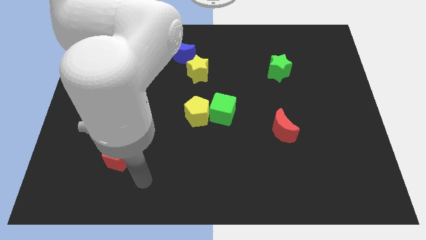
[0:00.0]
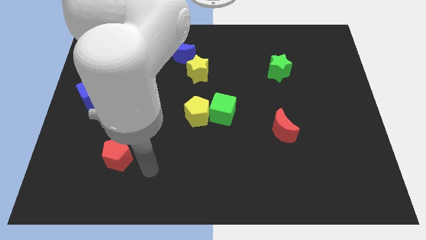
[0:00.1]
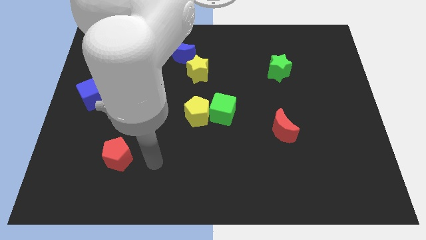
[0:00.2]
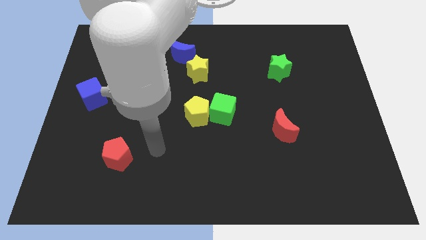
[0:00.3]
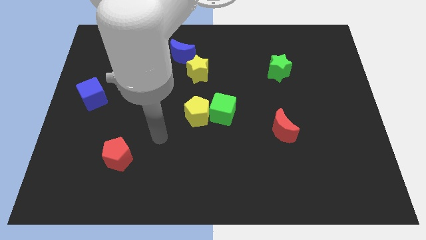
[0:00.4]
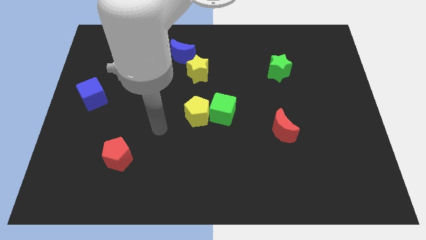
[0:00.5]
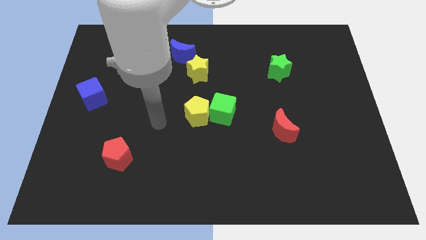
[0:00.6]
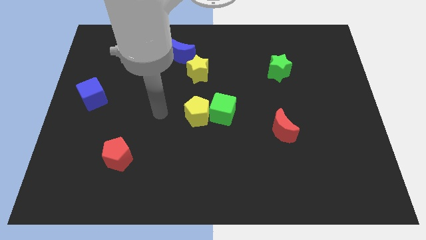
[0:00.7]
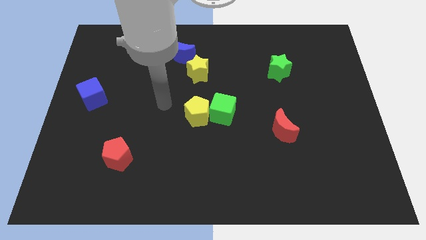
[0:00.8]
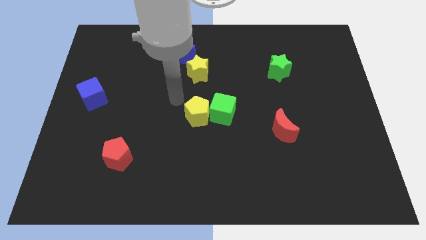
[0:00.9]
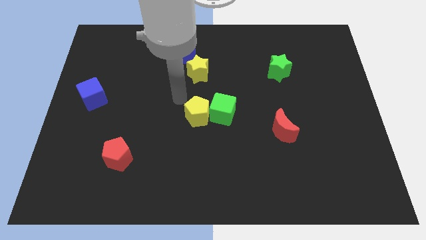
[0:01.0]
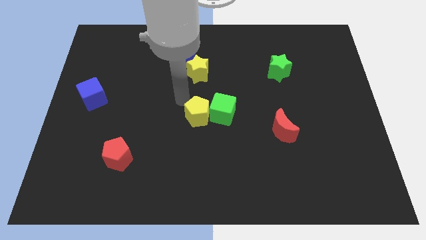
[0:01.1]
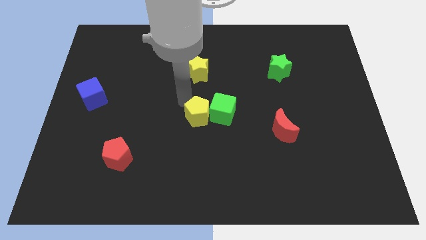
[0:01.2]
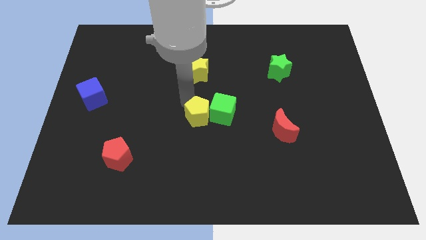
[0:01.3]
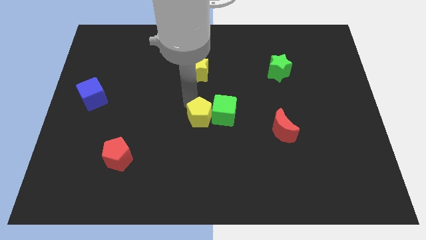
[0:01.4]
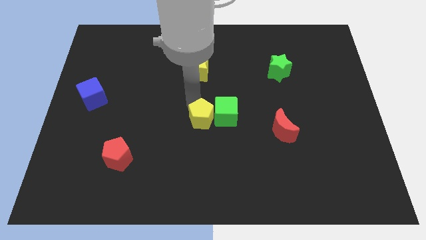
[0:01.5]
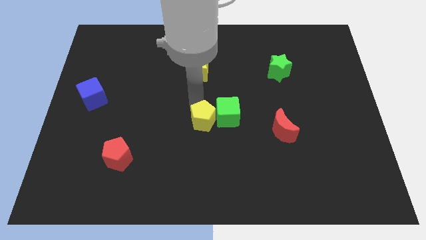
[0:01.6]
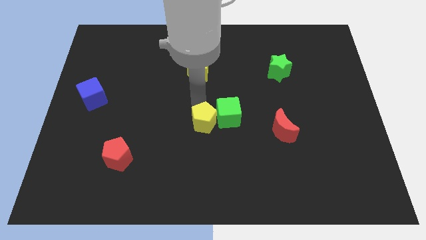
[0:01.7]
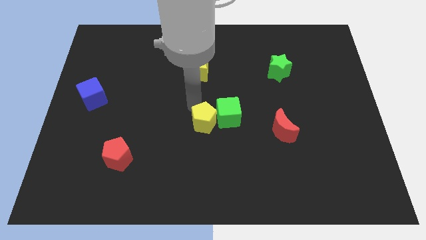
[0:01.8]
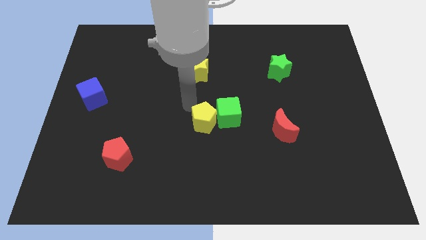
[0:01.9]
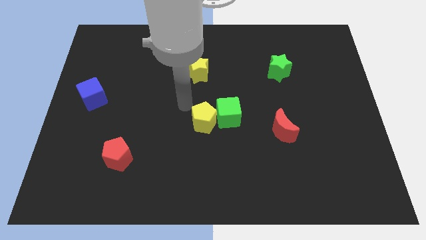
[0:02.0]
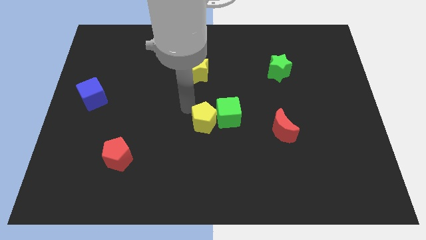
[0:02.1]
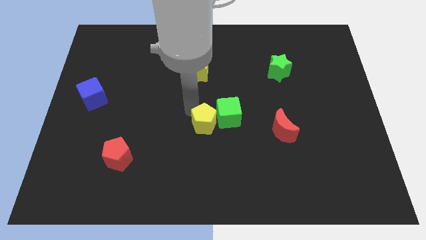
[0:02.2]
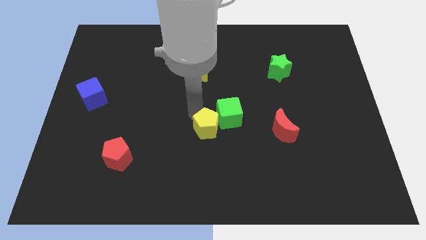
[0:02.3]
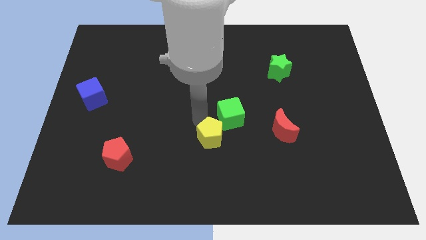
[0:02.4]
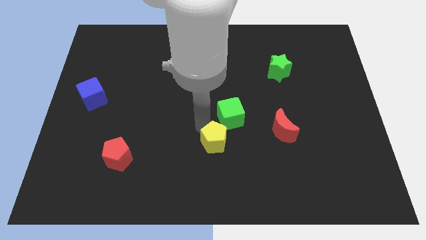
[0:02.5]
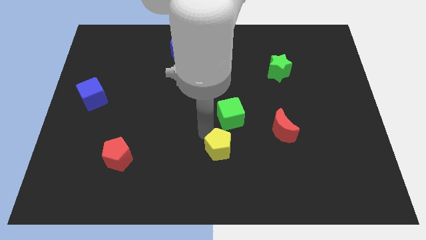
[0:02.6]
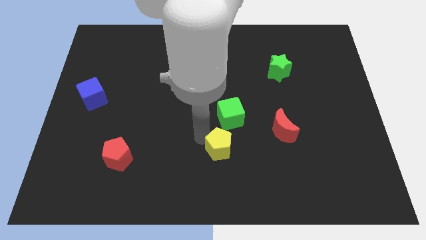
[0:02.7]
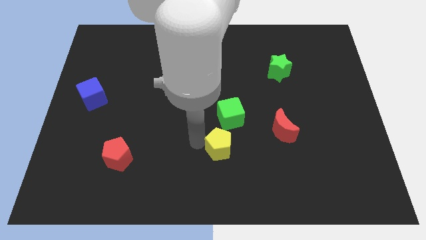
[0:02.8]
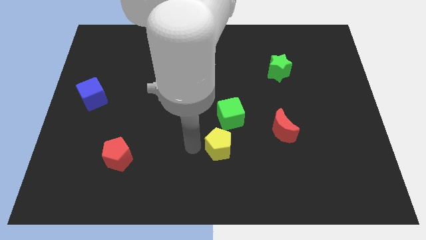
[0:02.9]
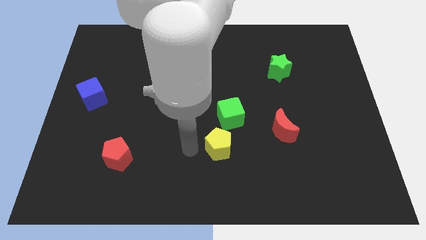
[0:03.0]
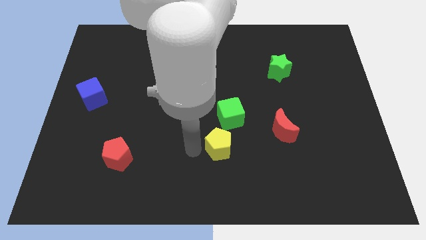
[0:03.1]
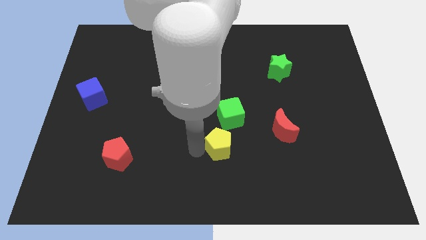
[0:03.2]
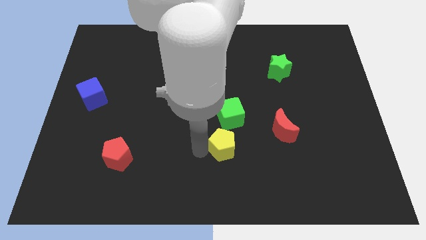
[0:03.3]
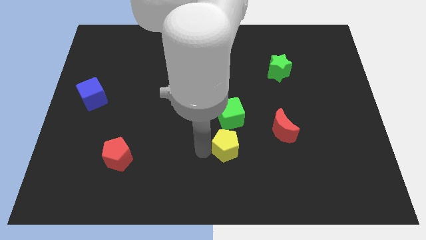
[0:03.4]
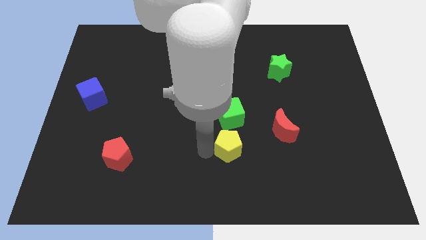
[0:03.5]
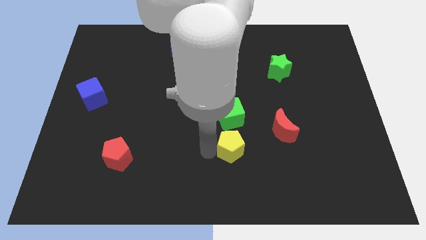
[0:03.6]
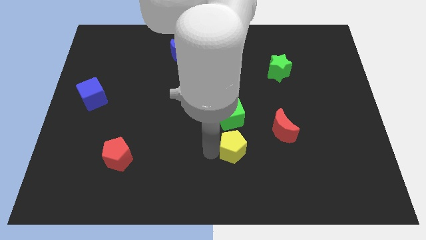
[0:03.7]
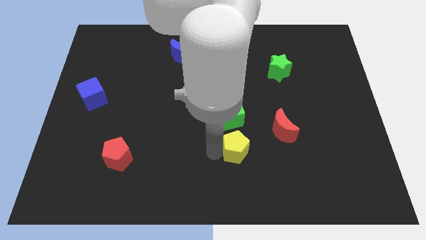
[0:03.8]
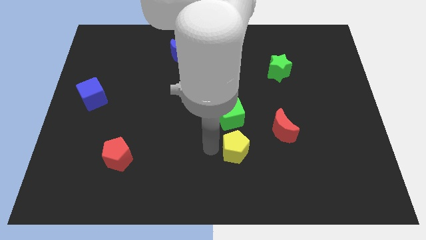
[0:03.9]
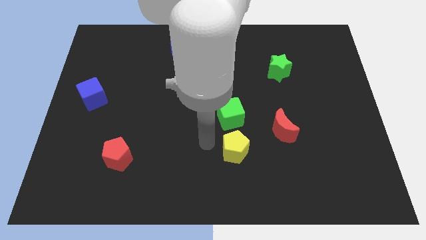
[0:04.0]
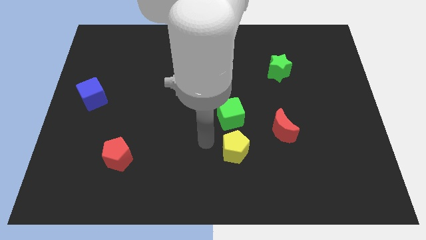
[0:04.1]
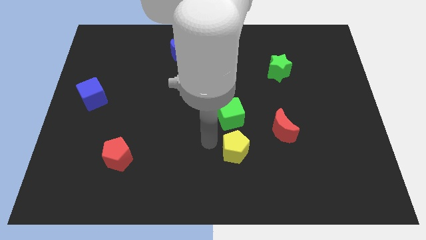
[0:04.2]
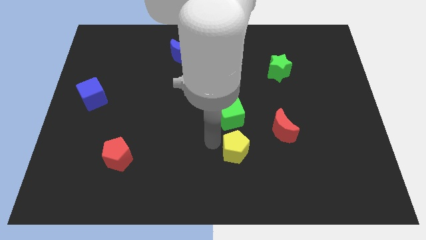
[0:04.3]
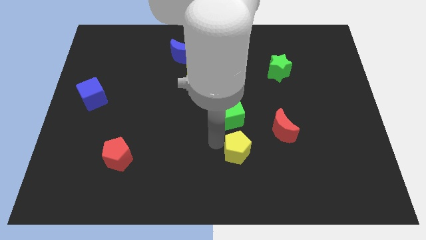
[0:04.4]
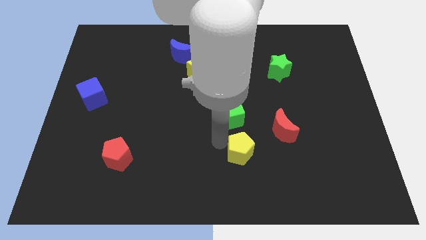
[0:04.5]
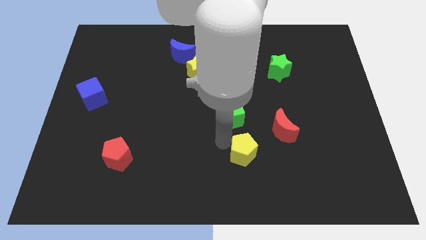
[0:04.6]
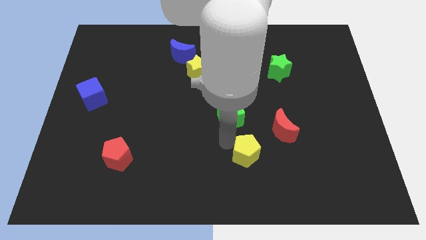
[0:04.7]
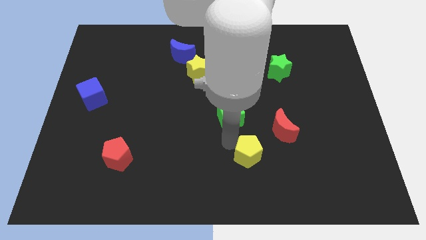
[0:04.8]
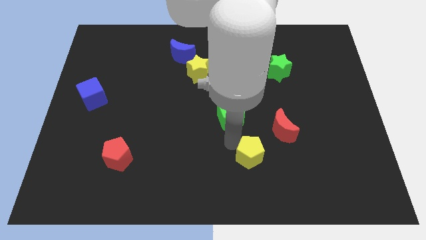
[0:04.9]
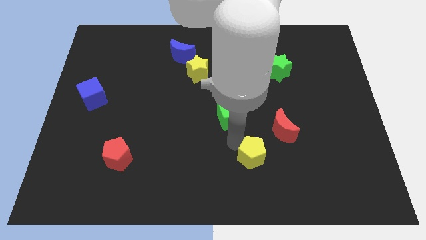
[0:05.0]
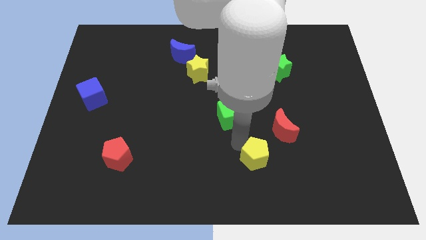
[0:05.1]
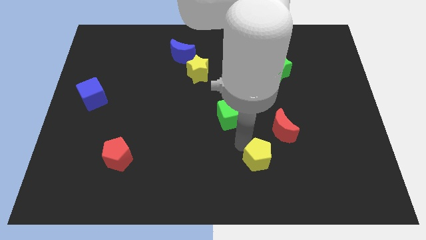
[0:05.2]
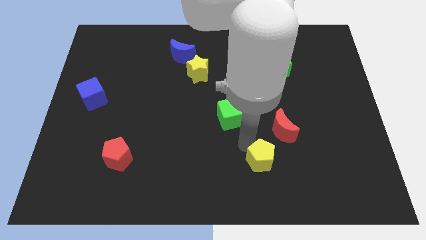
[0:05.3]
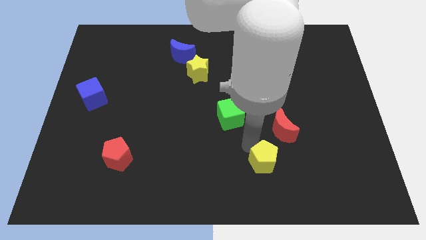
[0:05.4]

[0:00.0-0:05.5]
put the yellow pentagon to the bottom of the red moon

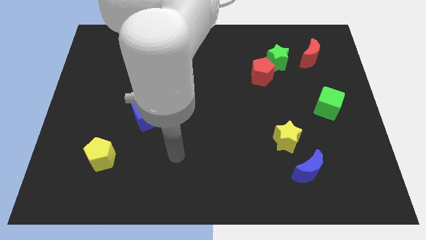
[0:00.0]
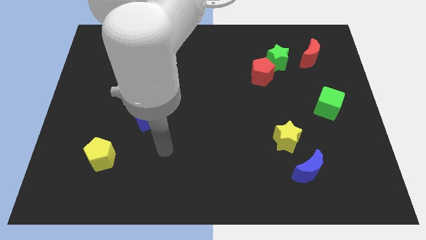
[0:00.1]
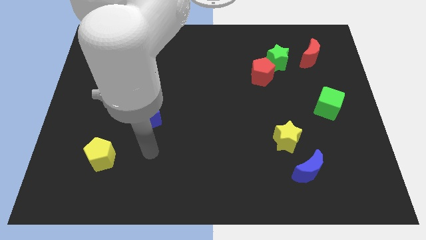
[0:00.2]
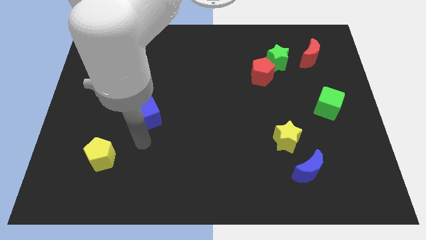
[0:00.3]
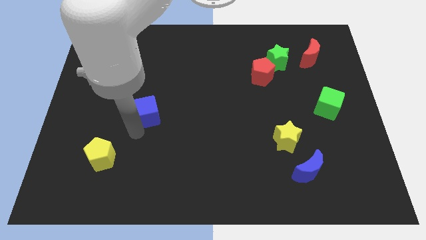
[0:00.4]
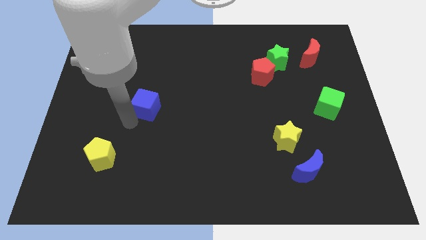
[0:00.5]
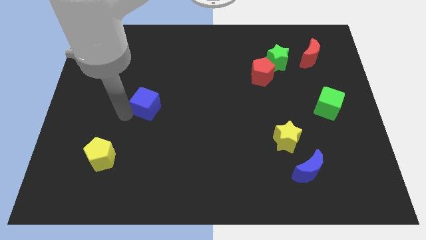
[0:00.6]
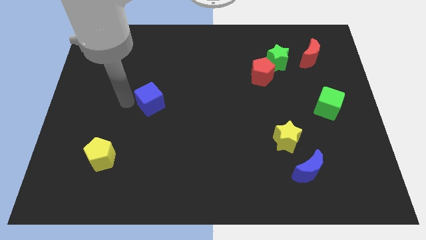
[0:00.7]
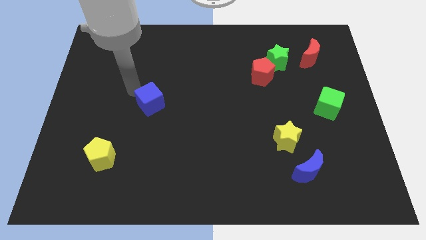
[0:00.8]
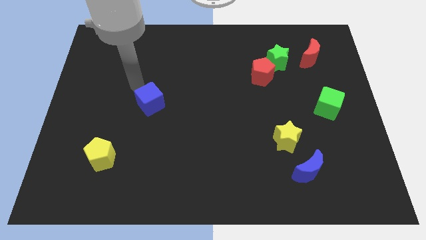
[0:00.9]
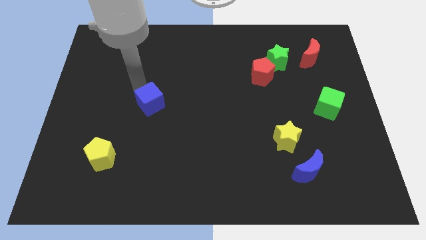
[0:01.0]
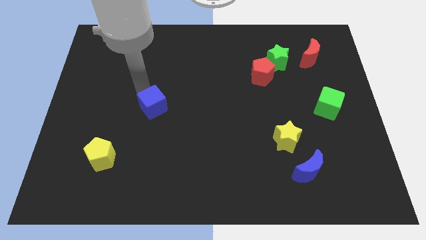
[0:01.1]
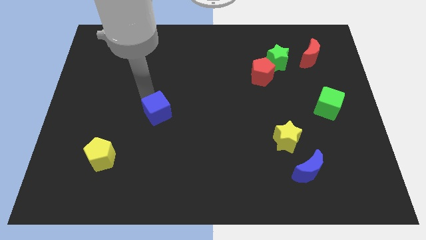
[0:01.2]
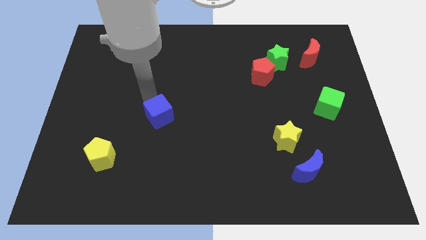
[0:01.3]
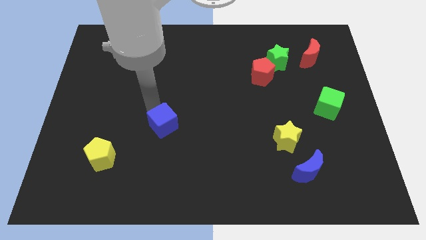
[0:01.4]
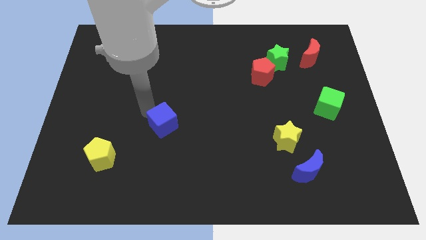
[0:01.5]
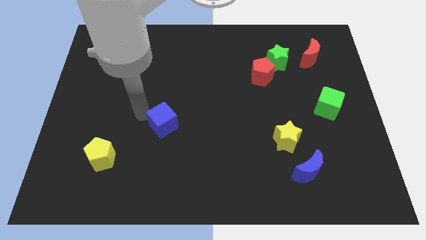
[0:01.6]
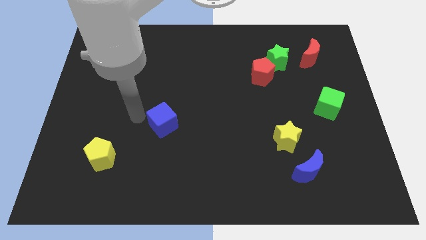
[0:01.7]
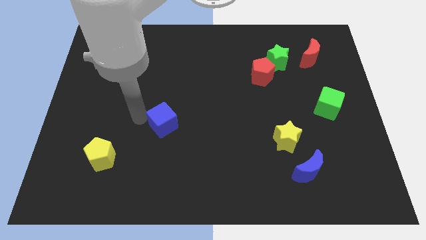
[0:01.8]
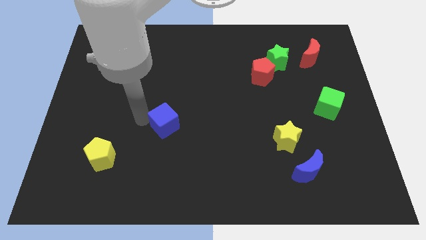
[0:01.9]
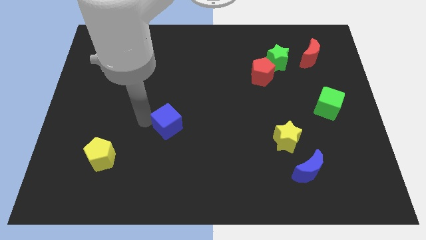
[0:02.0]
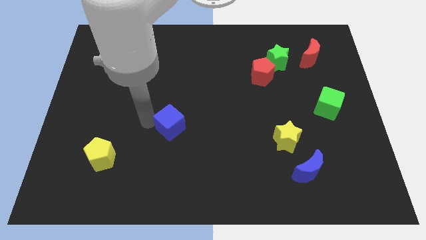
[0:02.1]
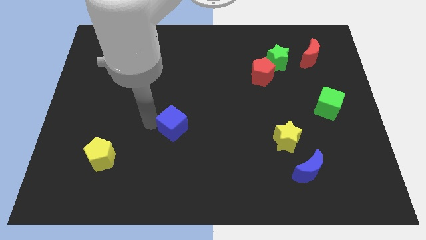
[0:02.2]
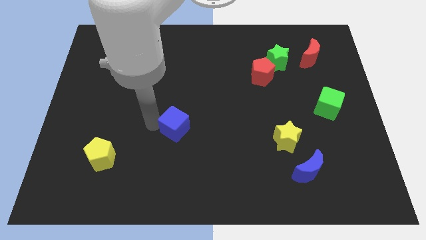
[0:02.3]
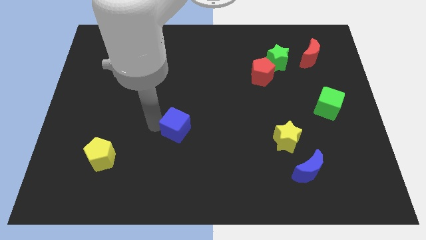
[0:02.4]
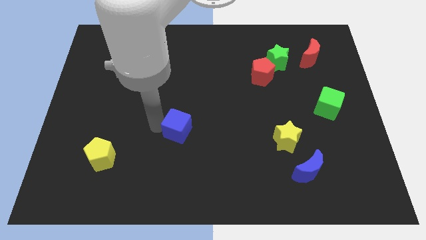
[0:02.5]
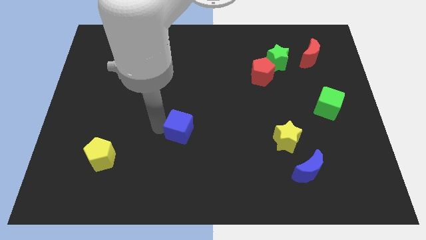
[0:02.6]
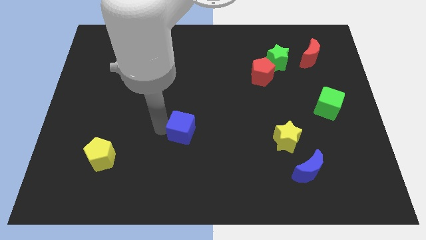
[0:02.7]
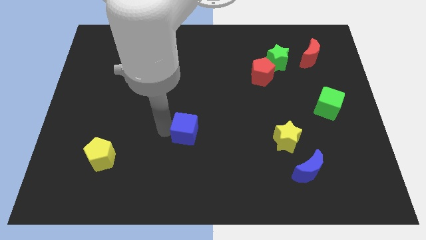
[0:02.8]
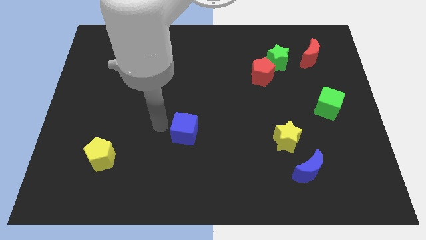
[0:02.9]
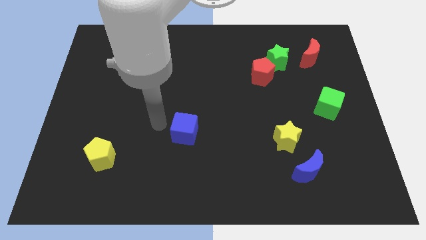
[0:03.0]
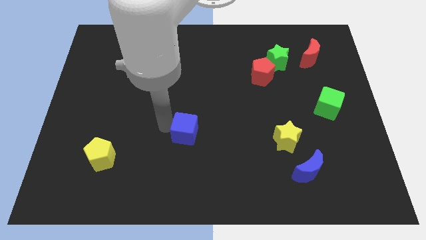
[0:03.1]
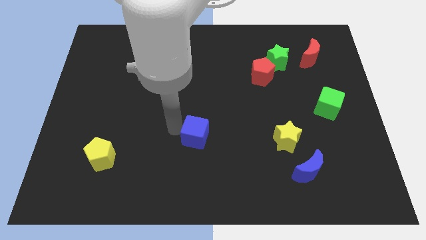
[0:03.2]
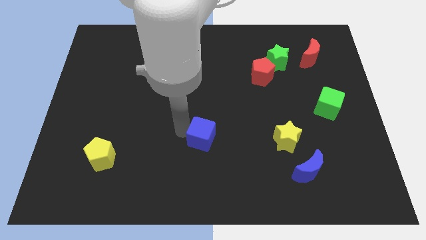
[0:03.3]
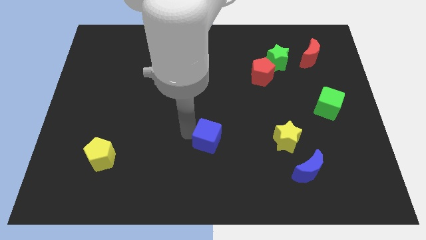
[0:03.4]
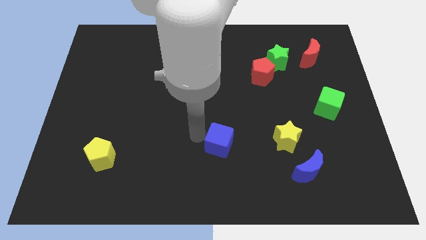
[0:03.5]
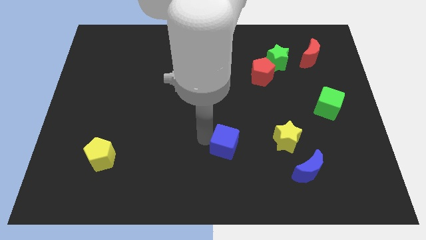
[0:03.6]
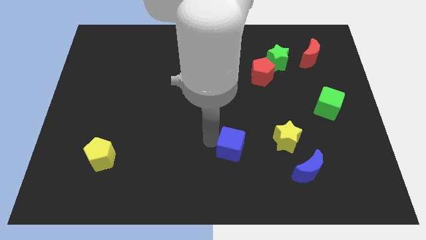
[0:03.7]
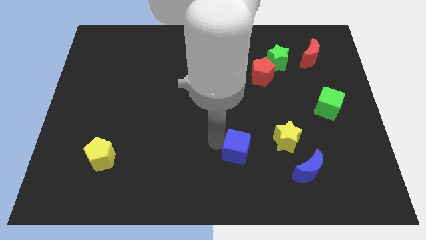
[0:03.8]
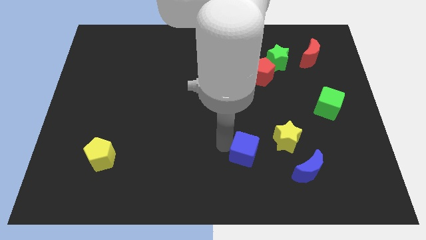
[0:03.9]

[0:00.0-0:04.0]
push the blue cube to the bottom left side of the yellow star
